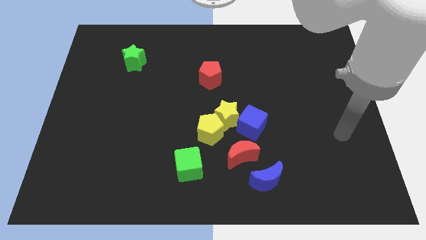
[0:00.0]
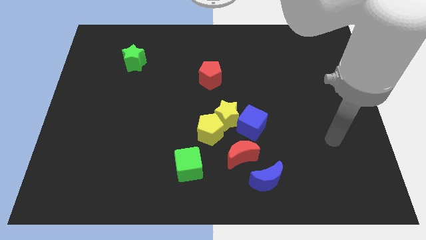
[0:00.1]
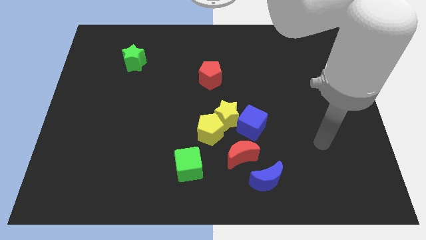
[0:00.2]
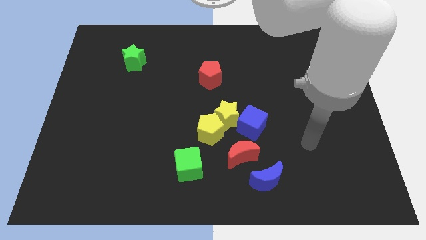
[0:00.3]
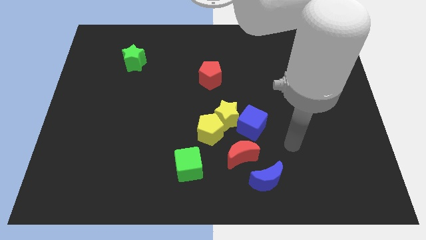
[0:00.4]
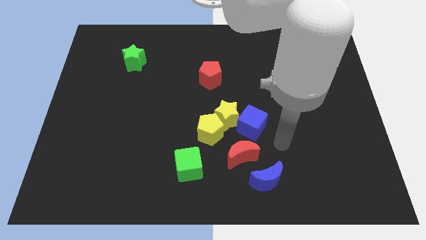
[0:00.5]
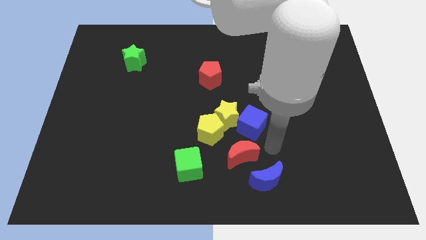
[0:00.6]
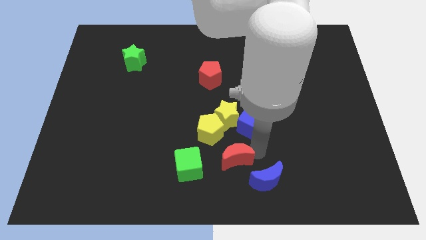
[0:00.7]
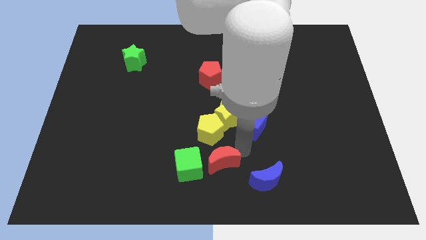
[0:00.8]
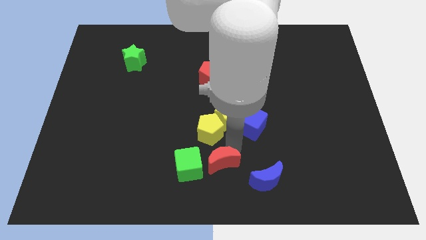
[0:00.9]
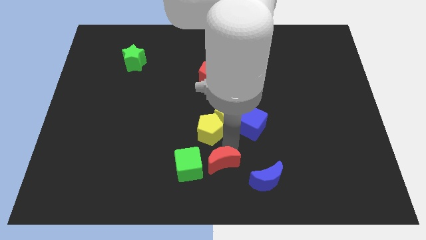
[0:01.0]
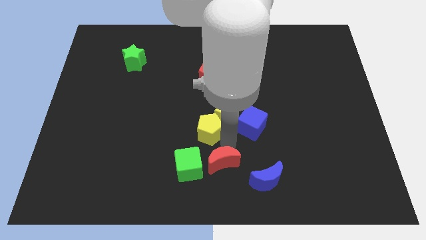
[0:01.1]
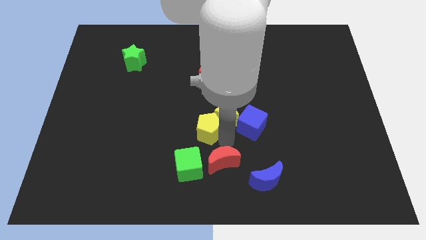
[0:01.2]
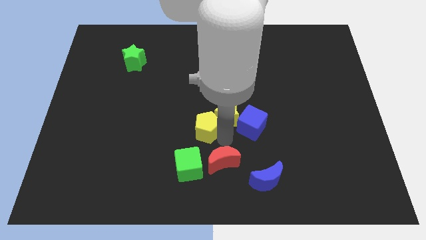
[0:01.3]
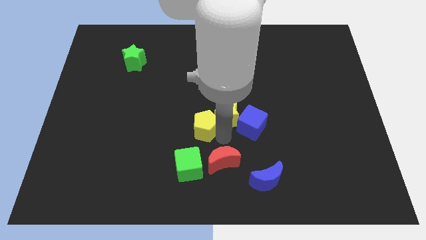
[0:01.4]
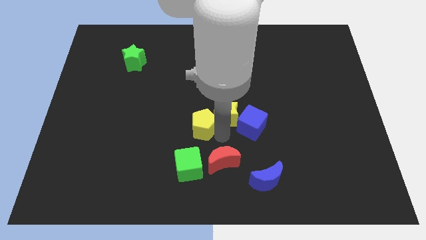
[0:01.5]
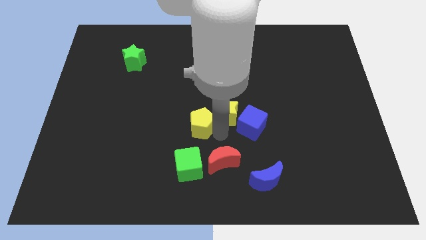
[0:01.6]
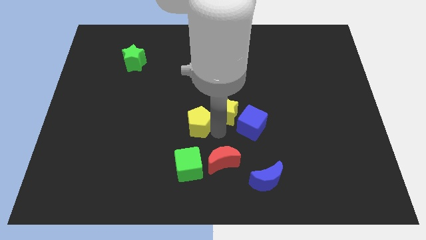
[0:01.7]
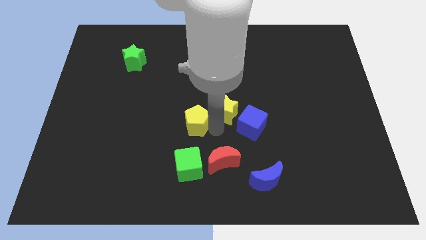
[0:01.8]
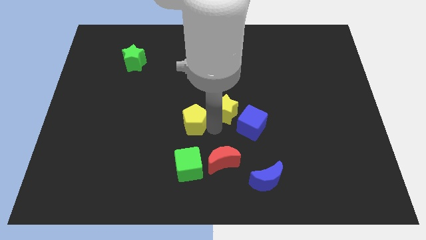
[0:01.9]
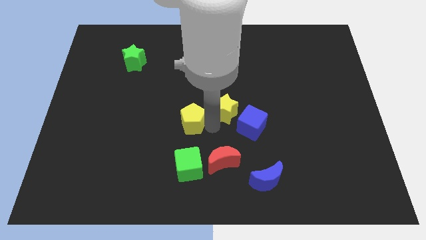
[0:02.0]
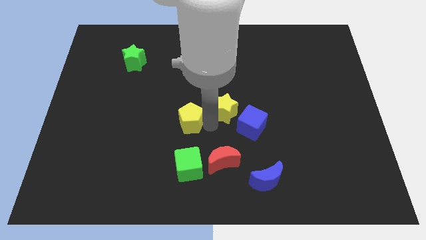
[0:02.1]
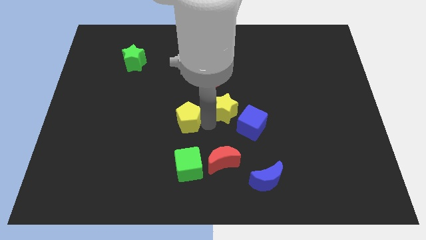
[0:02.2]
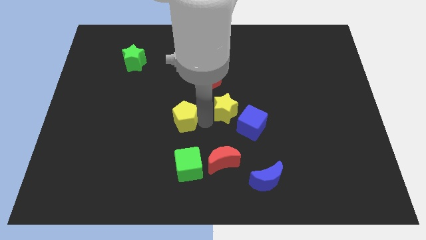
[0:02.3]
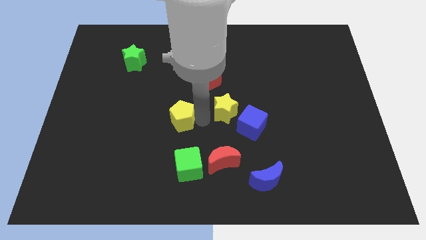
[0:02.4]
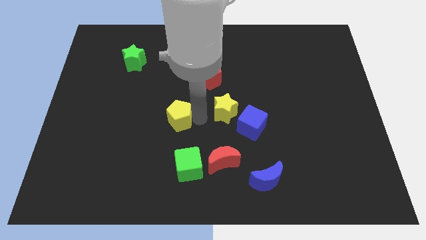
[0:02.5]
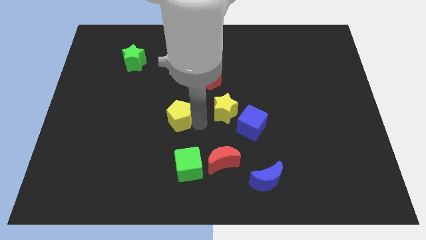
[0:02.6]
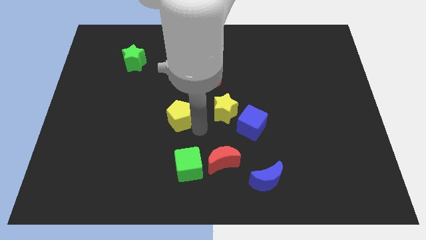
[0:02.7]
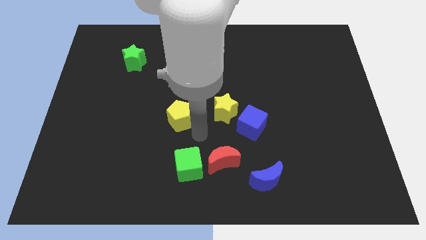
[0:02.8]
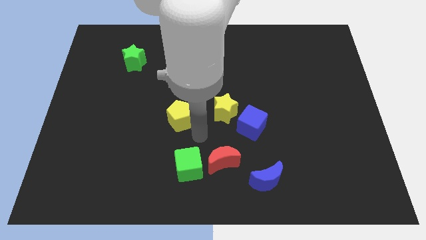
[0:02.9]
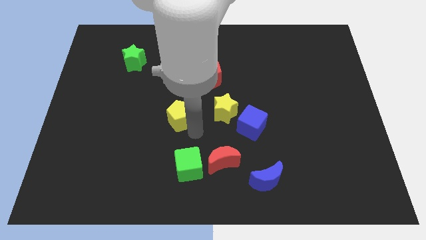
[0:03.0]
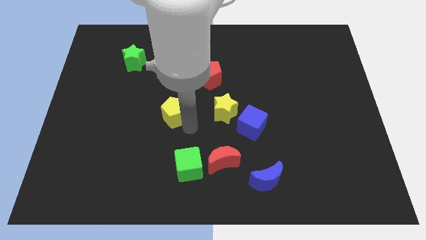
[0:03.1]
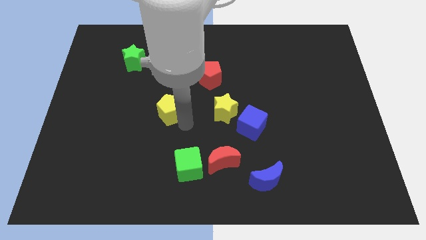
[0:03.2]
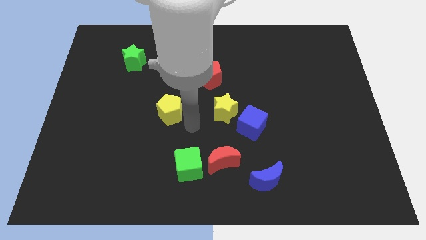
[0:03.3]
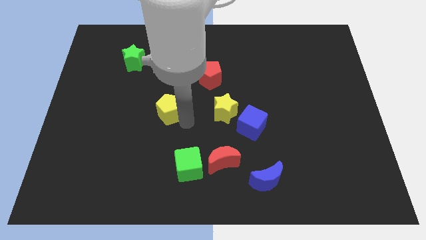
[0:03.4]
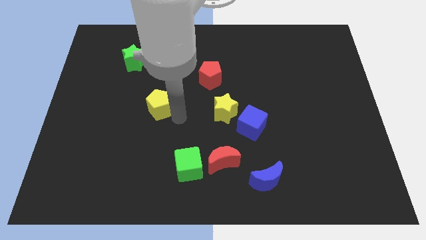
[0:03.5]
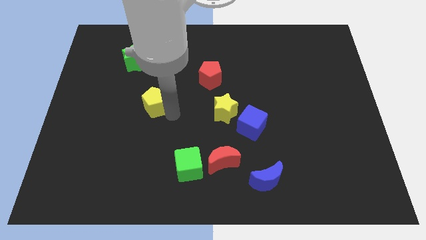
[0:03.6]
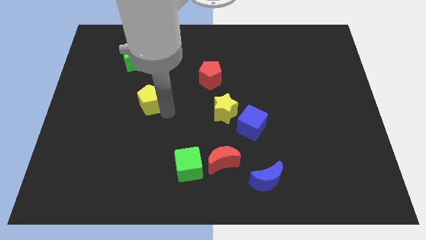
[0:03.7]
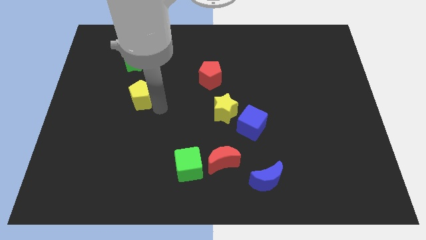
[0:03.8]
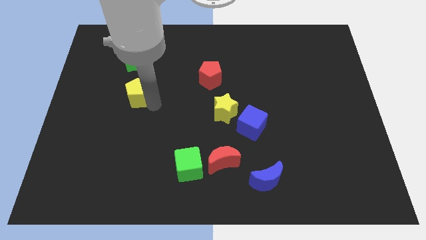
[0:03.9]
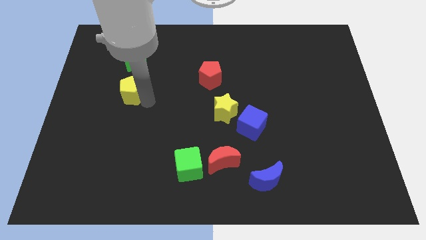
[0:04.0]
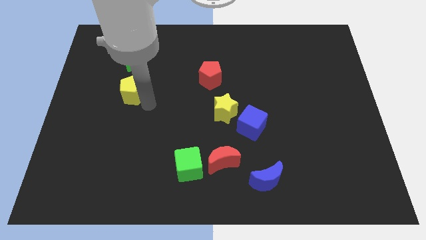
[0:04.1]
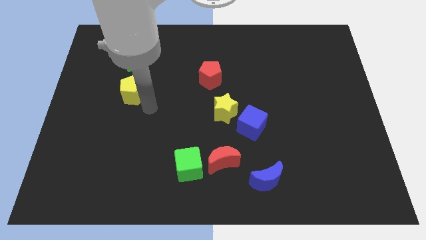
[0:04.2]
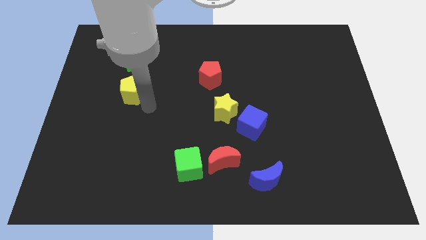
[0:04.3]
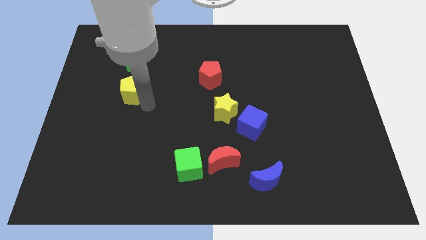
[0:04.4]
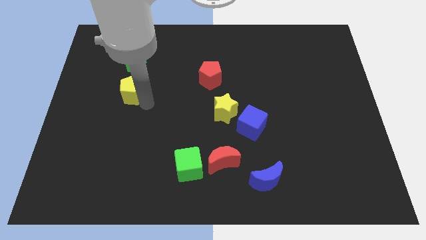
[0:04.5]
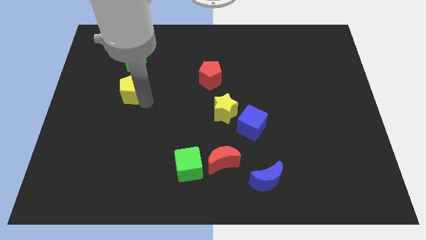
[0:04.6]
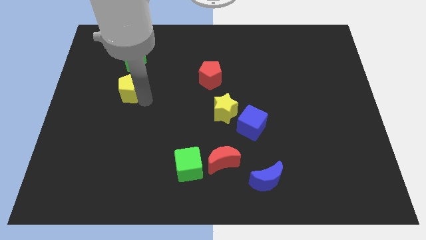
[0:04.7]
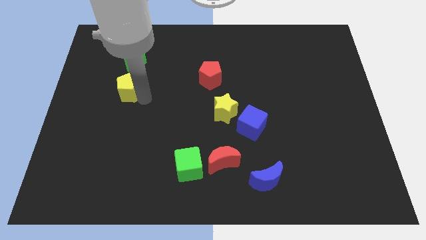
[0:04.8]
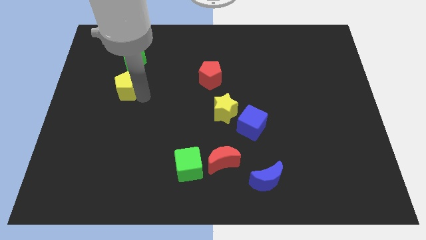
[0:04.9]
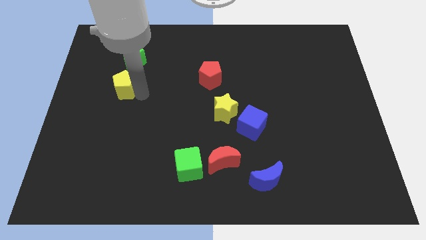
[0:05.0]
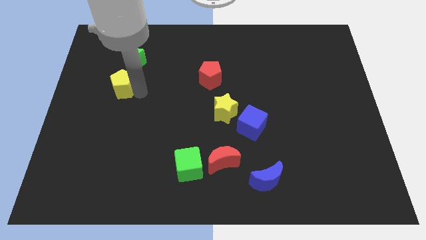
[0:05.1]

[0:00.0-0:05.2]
move the yellow pentagon diagonally down and to the left of the green star

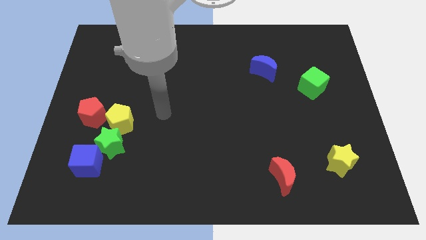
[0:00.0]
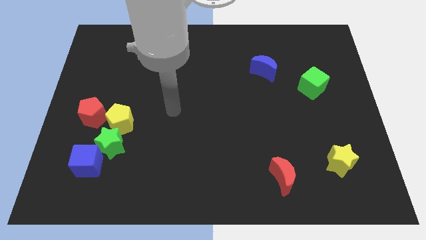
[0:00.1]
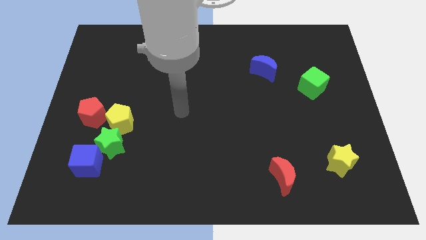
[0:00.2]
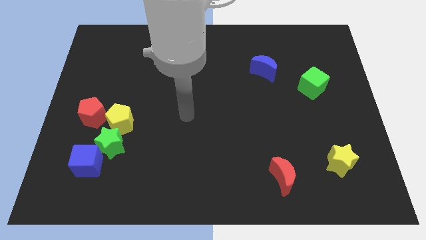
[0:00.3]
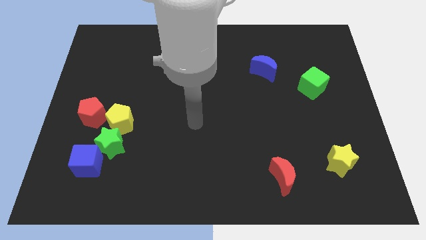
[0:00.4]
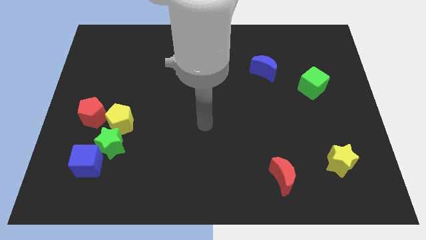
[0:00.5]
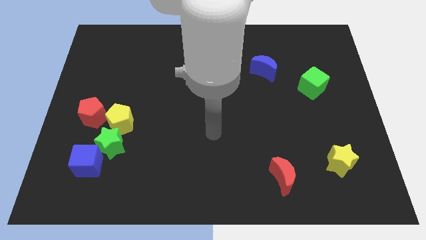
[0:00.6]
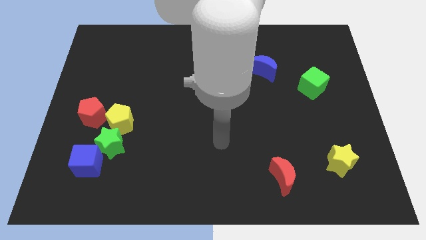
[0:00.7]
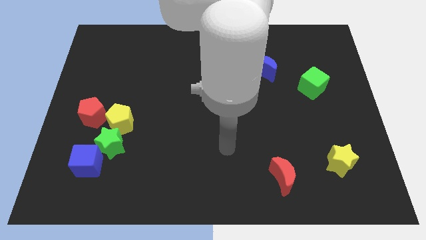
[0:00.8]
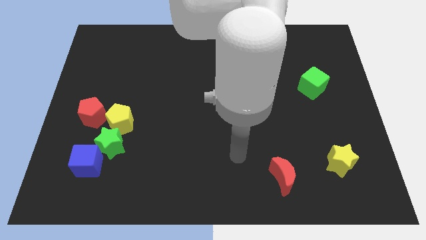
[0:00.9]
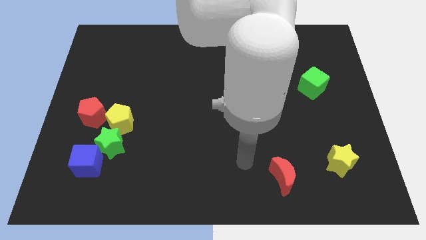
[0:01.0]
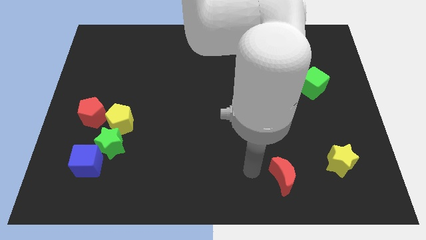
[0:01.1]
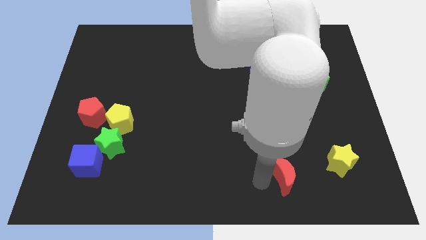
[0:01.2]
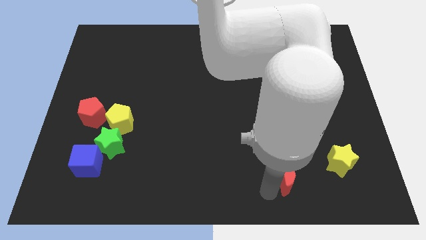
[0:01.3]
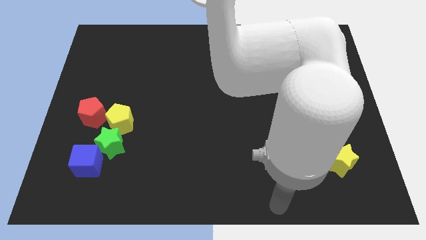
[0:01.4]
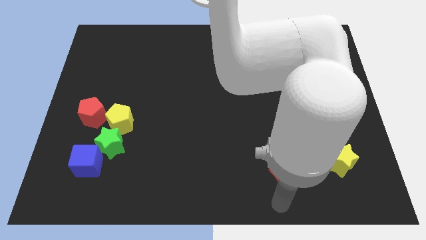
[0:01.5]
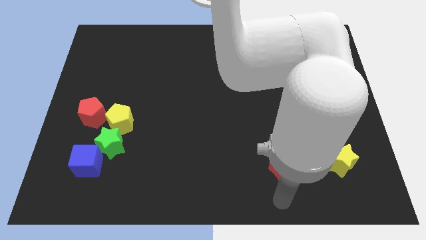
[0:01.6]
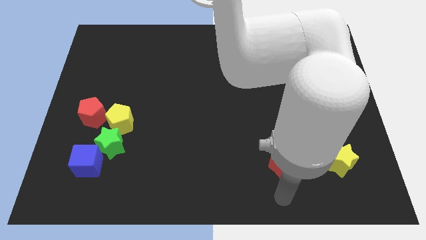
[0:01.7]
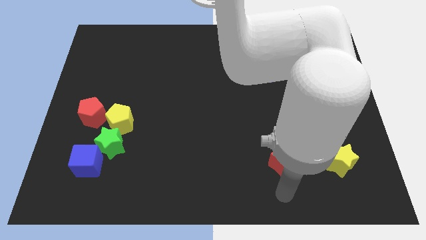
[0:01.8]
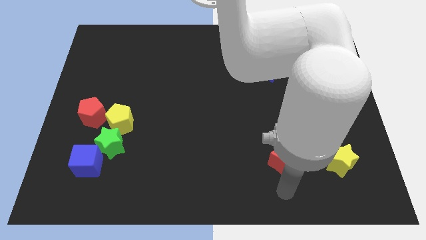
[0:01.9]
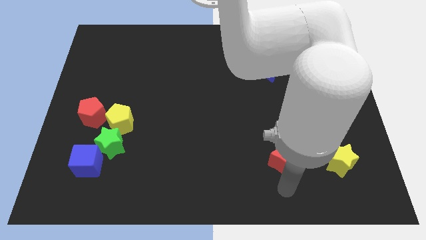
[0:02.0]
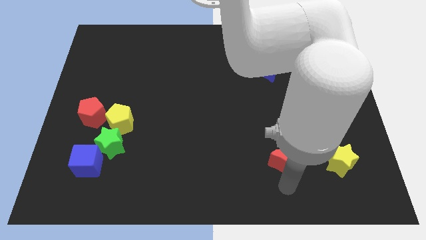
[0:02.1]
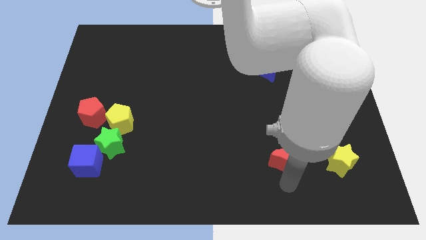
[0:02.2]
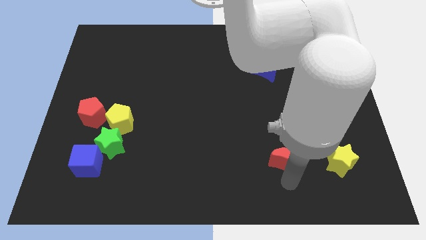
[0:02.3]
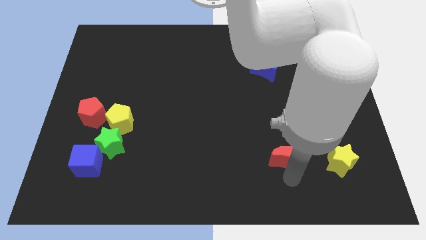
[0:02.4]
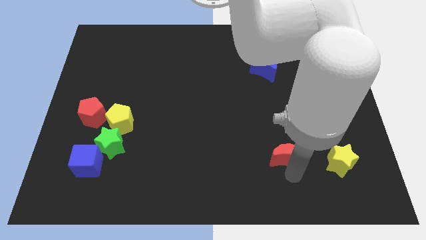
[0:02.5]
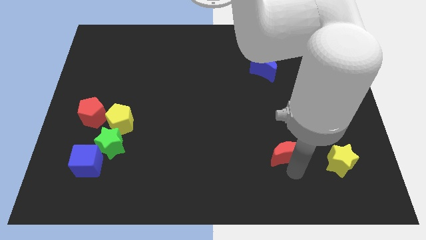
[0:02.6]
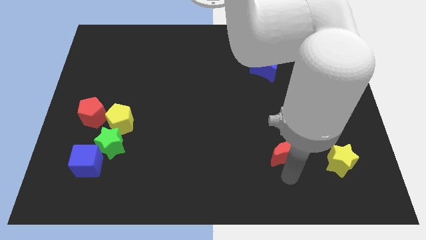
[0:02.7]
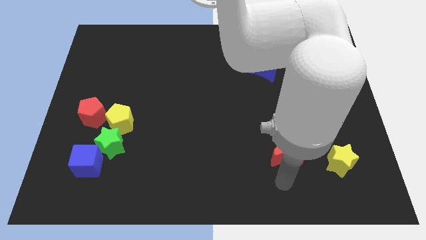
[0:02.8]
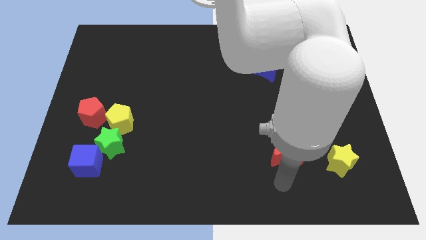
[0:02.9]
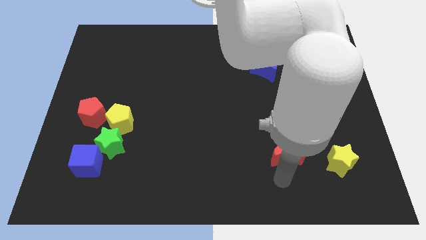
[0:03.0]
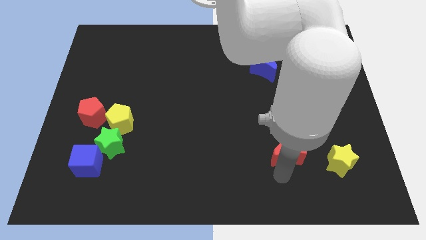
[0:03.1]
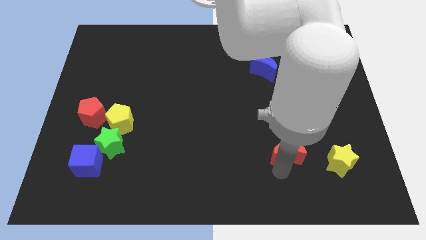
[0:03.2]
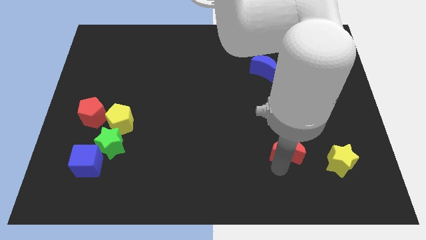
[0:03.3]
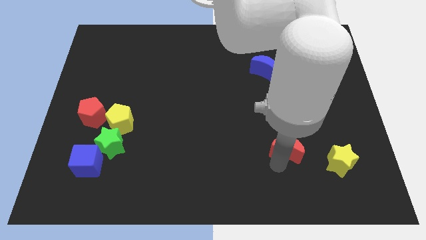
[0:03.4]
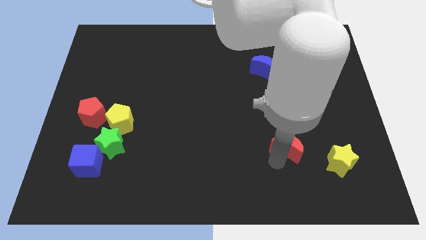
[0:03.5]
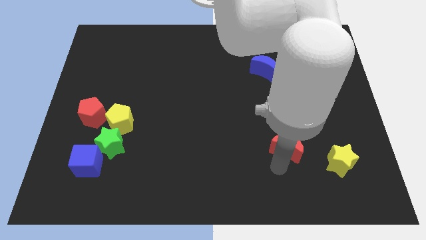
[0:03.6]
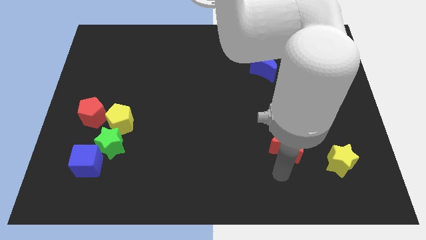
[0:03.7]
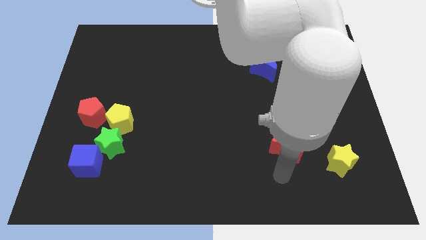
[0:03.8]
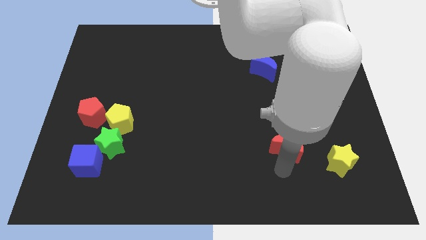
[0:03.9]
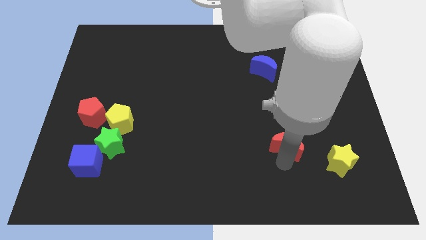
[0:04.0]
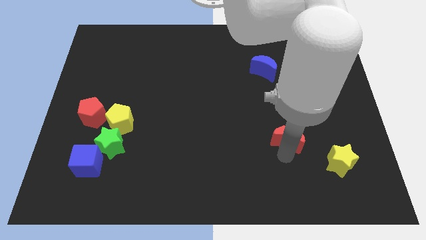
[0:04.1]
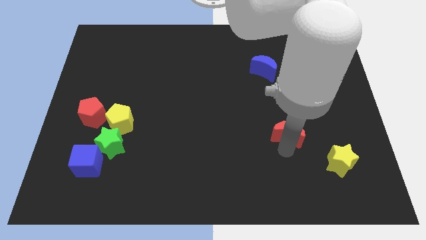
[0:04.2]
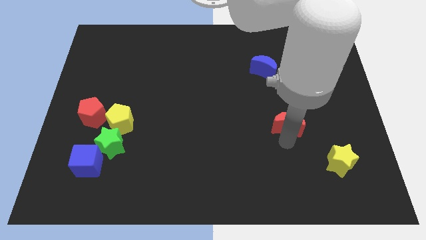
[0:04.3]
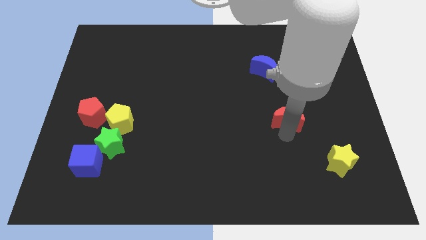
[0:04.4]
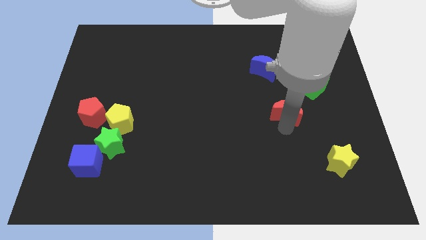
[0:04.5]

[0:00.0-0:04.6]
put the red moon to the bottom left side of the green cube
